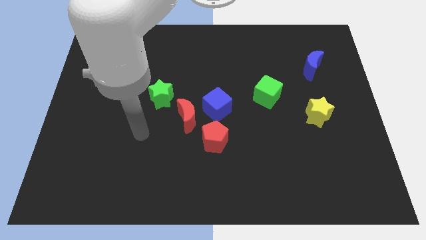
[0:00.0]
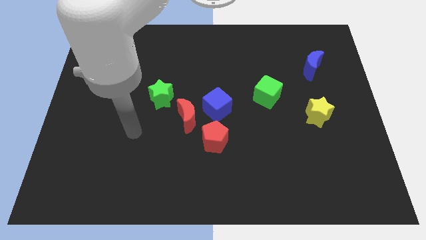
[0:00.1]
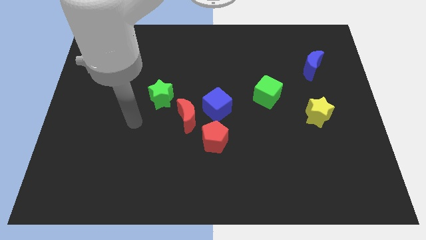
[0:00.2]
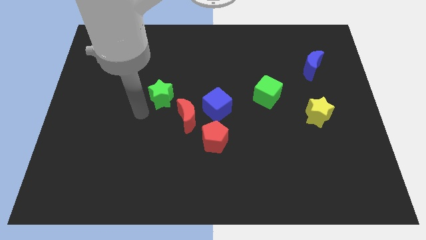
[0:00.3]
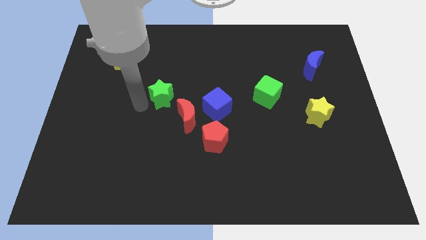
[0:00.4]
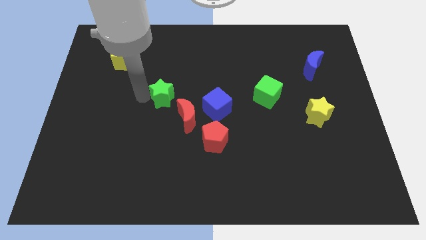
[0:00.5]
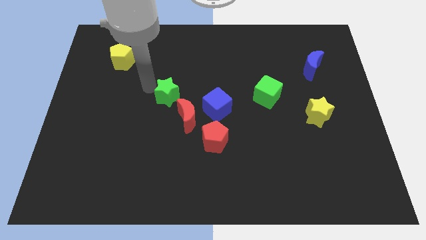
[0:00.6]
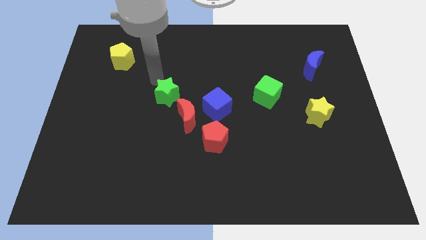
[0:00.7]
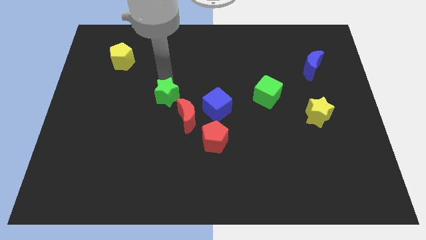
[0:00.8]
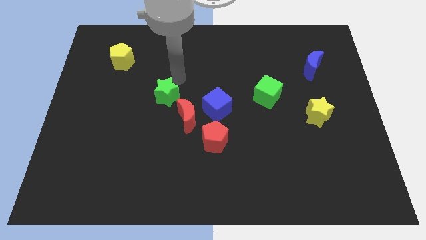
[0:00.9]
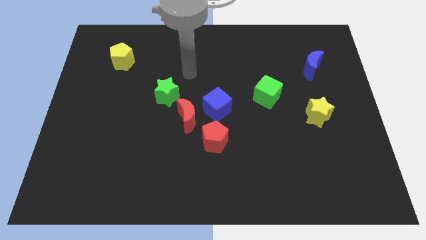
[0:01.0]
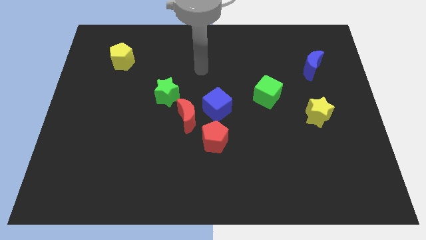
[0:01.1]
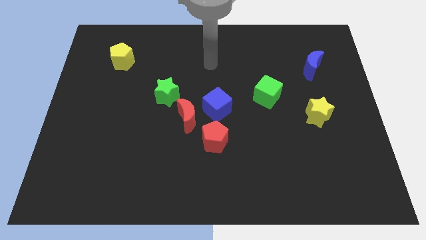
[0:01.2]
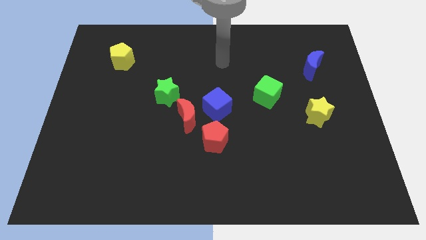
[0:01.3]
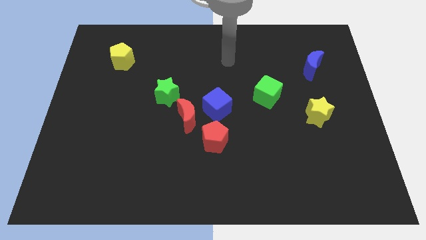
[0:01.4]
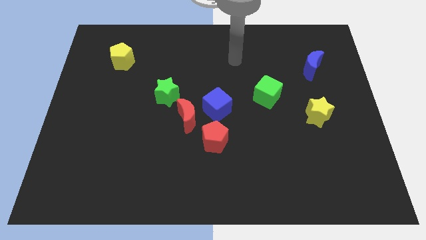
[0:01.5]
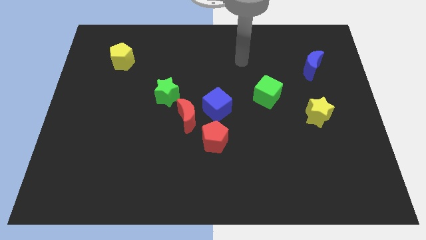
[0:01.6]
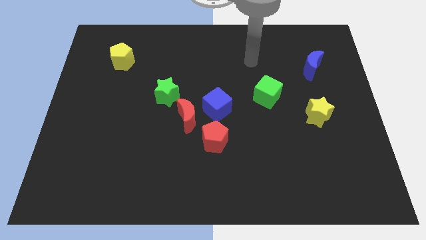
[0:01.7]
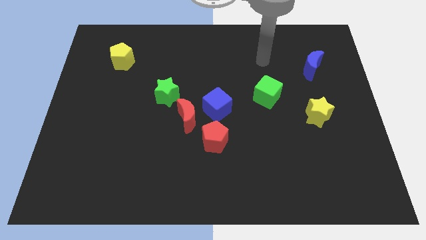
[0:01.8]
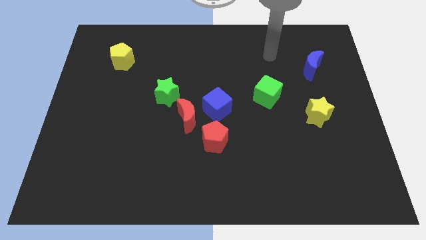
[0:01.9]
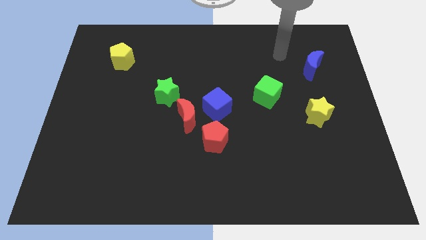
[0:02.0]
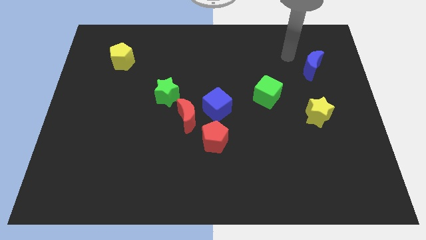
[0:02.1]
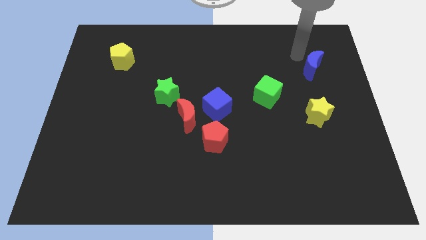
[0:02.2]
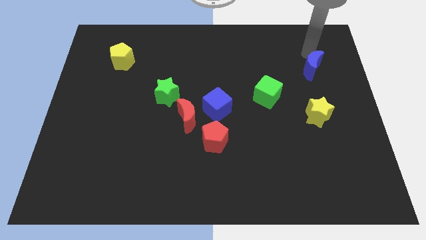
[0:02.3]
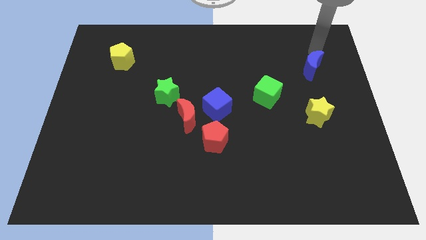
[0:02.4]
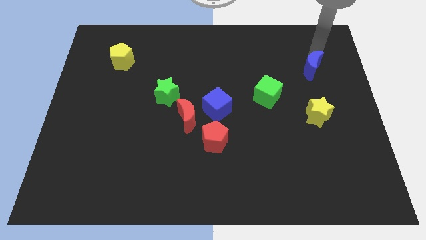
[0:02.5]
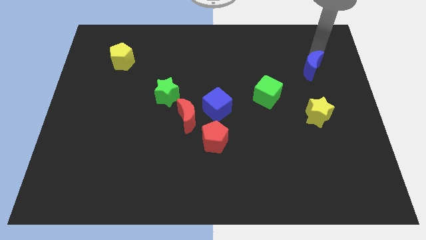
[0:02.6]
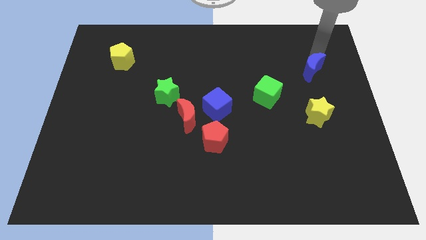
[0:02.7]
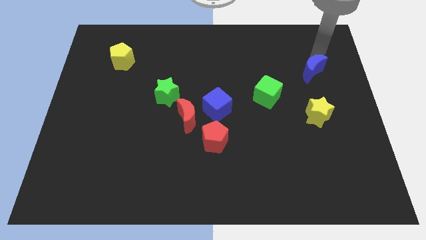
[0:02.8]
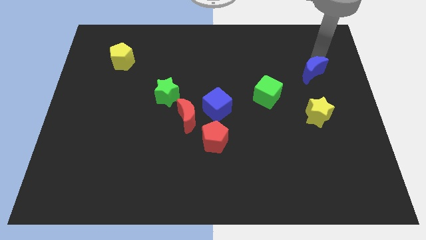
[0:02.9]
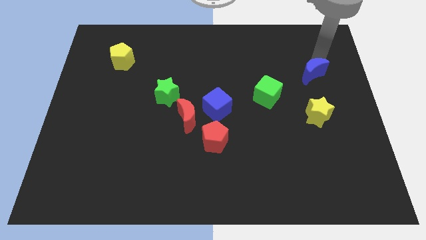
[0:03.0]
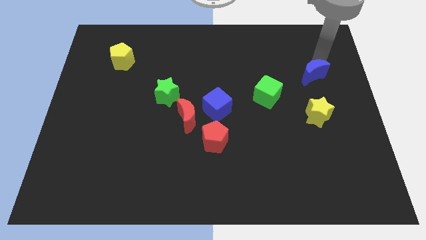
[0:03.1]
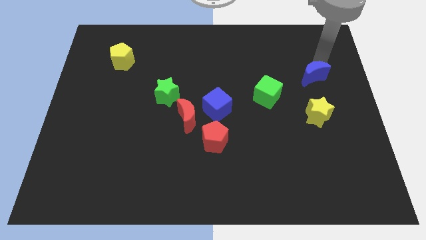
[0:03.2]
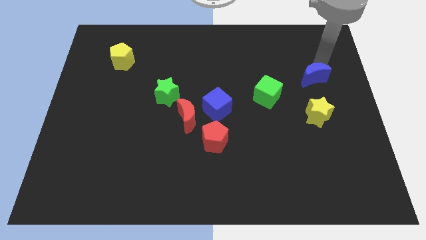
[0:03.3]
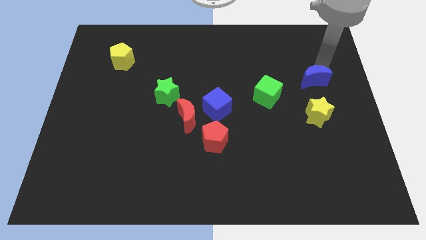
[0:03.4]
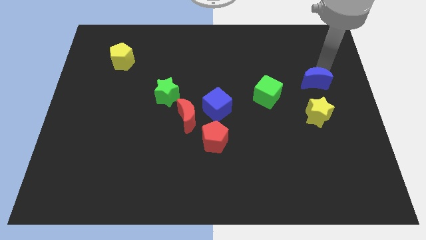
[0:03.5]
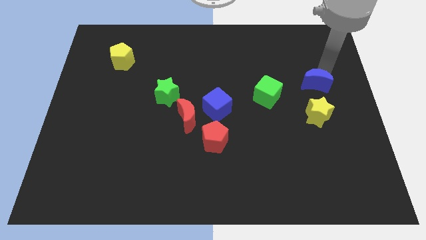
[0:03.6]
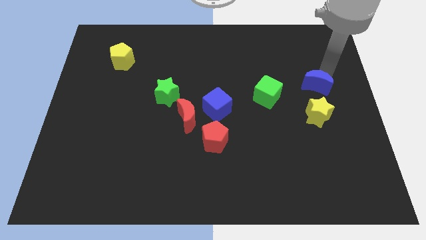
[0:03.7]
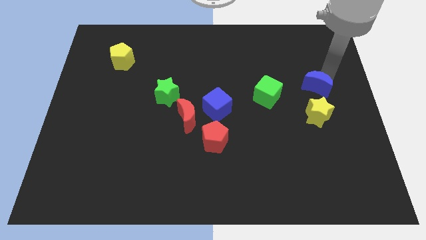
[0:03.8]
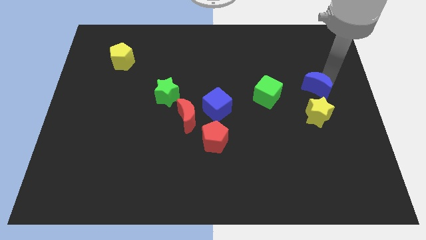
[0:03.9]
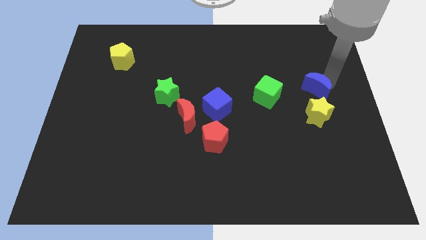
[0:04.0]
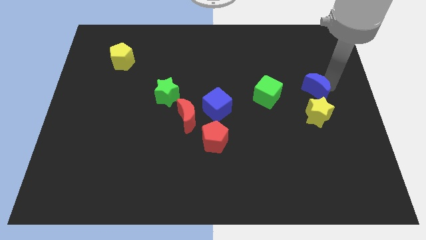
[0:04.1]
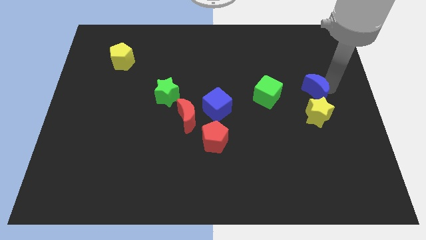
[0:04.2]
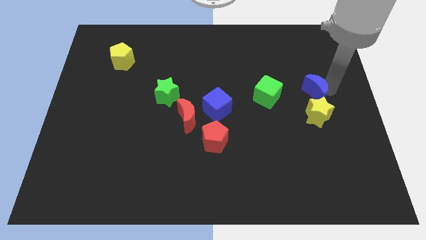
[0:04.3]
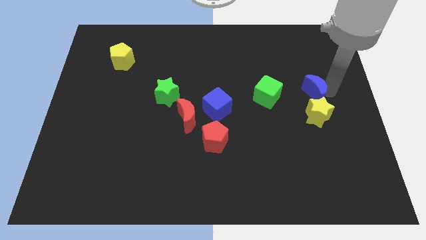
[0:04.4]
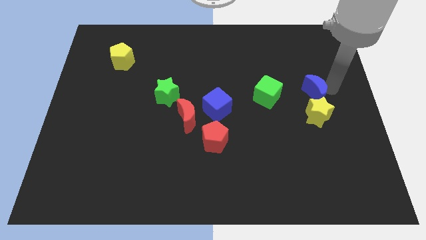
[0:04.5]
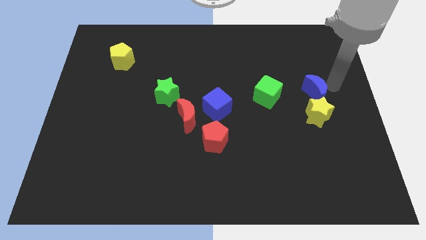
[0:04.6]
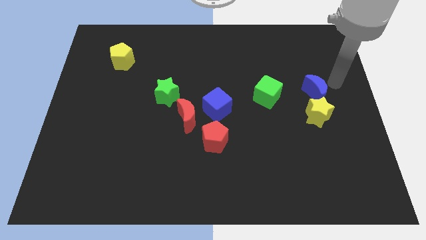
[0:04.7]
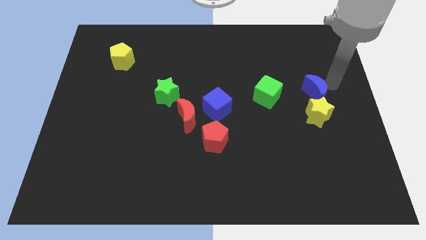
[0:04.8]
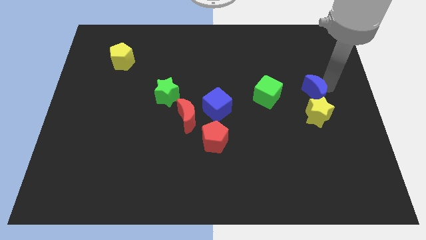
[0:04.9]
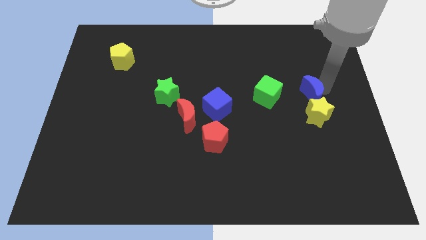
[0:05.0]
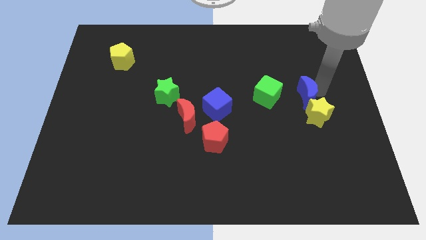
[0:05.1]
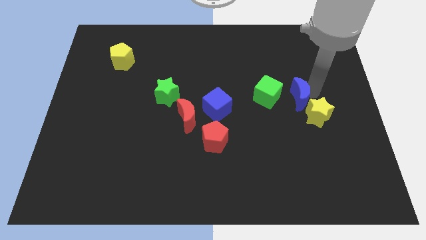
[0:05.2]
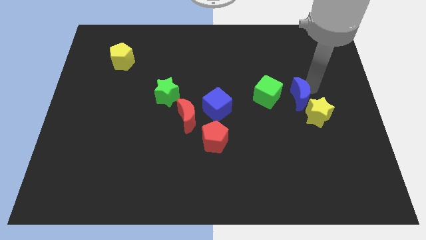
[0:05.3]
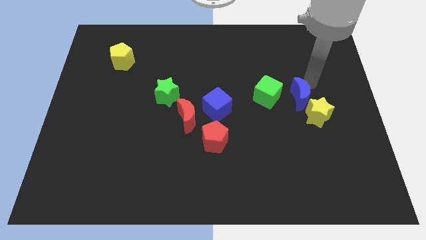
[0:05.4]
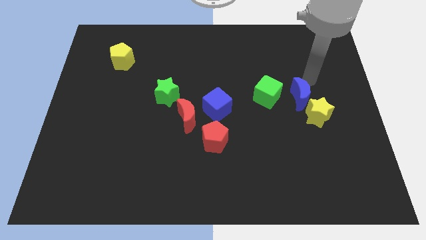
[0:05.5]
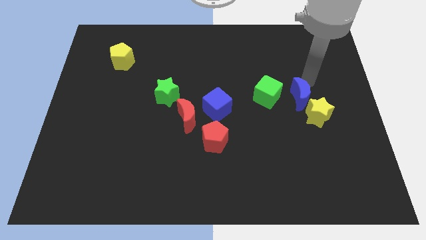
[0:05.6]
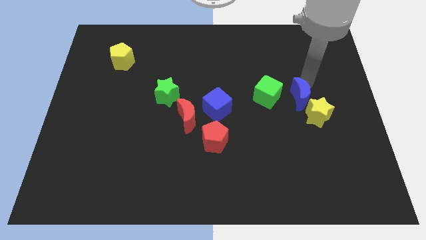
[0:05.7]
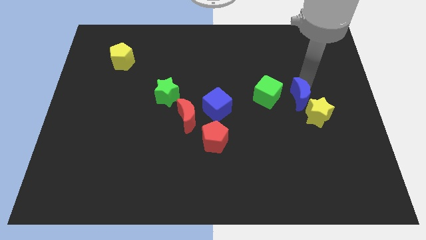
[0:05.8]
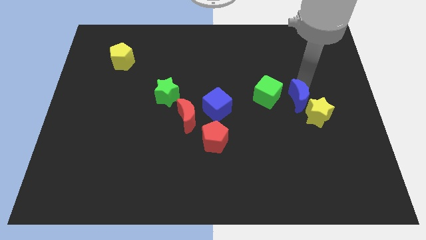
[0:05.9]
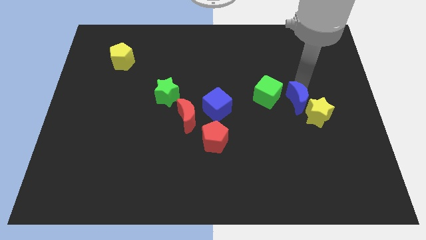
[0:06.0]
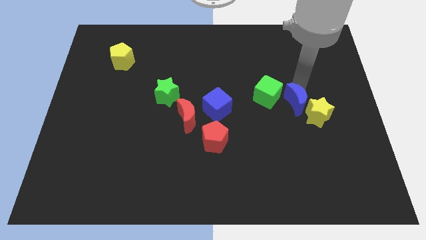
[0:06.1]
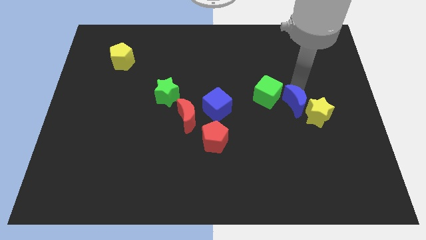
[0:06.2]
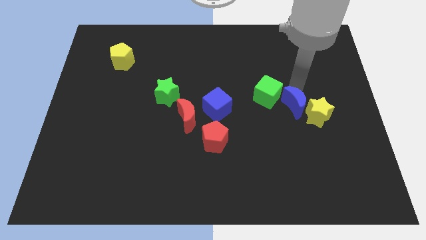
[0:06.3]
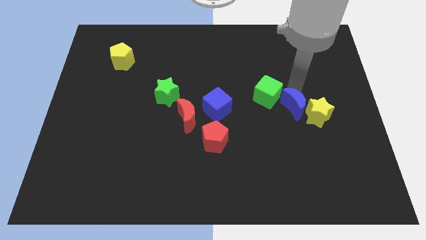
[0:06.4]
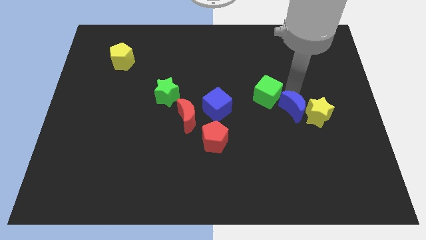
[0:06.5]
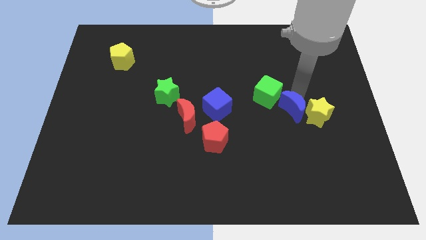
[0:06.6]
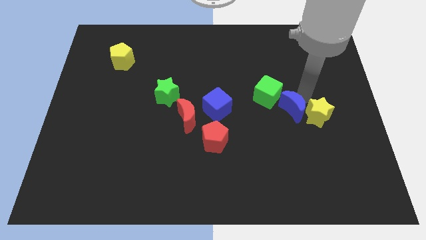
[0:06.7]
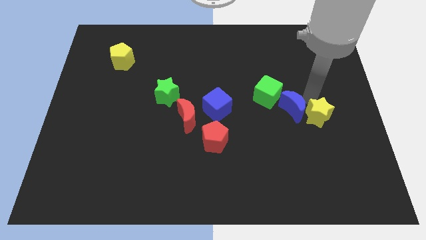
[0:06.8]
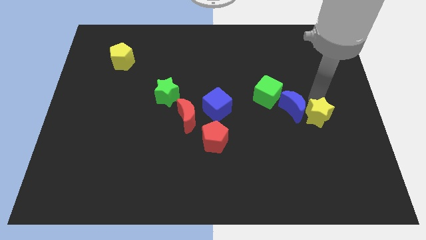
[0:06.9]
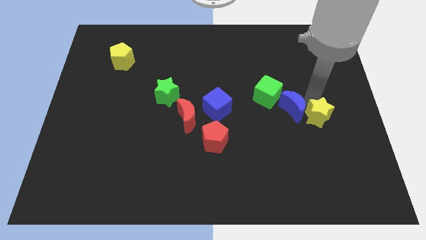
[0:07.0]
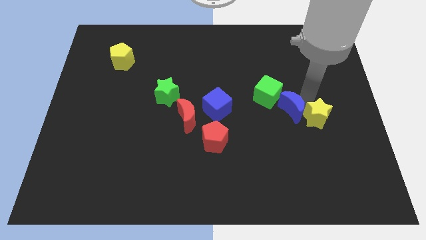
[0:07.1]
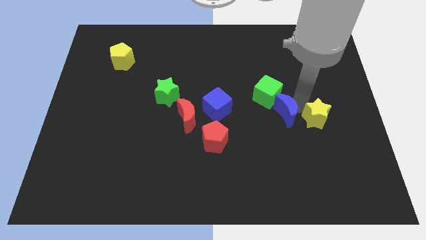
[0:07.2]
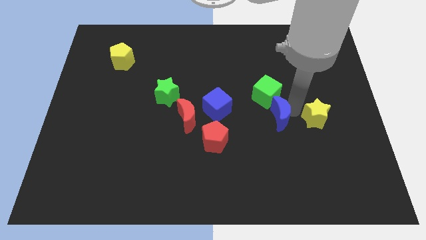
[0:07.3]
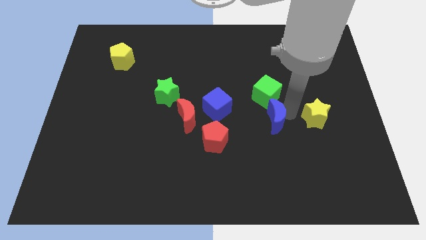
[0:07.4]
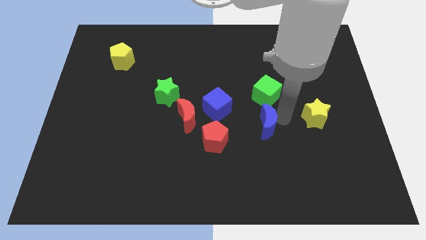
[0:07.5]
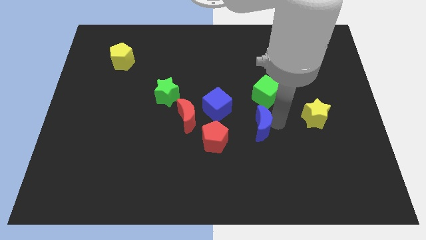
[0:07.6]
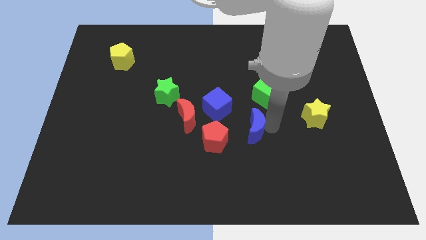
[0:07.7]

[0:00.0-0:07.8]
put the blue moon diagonally up and to the right of the red pentagon
